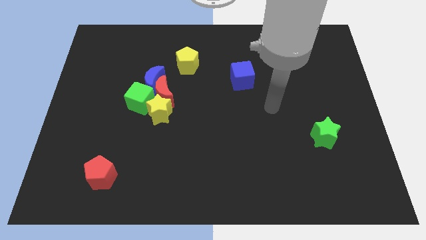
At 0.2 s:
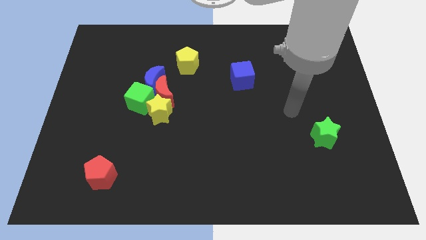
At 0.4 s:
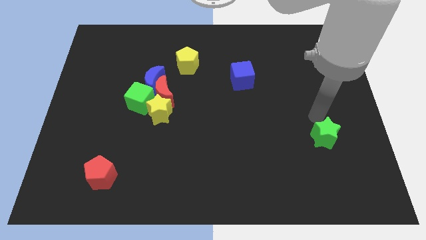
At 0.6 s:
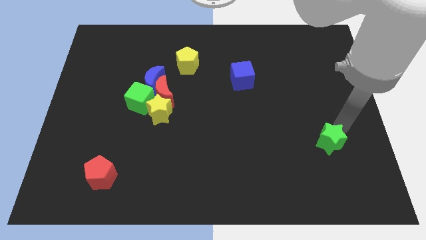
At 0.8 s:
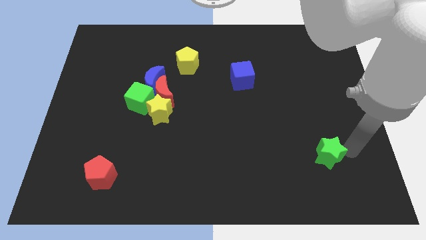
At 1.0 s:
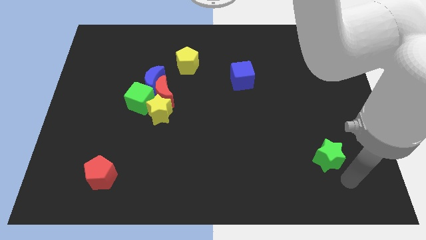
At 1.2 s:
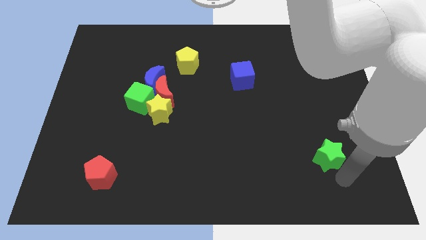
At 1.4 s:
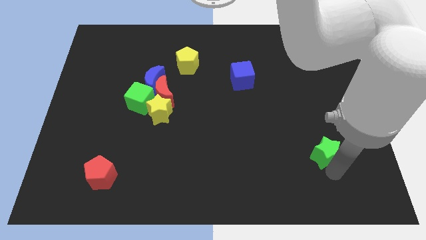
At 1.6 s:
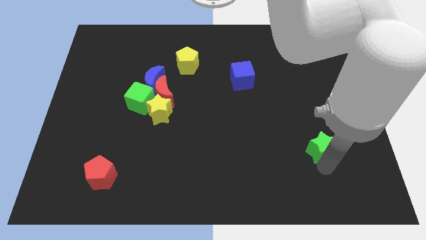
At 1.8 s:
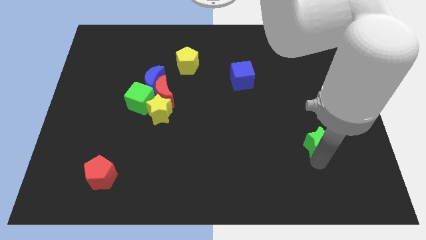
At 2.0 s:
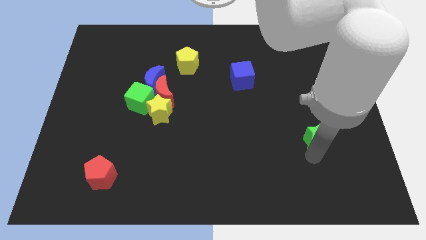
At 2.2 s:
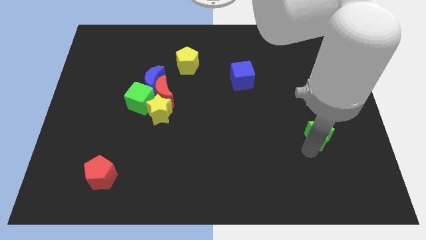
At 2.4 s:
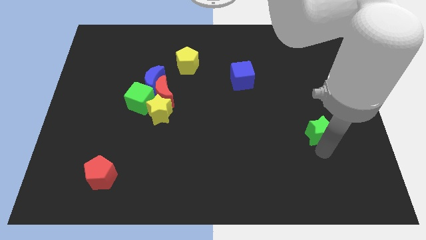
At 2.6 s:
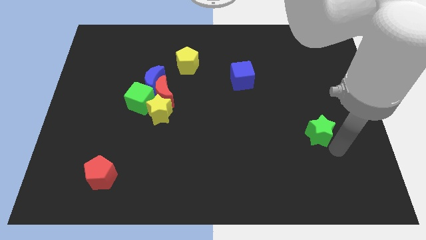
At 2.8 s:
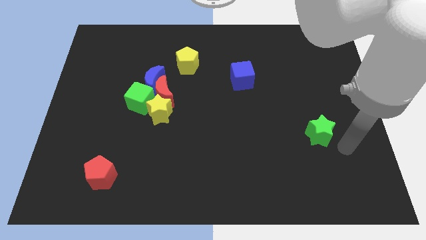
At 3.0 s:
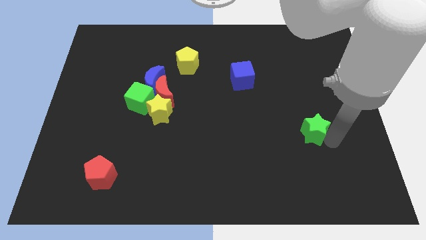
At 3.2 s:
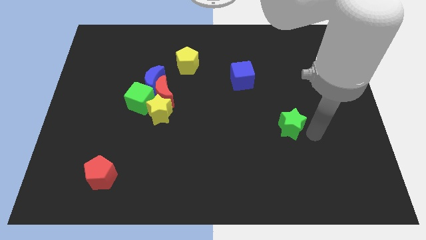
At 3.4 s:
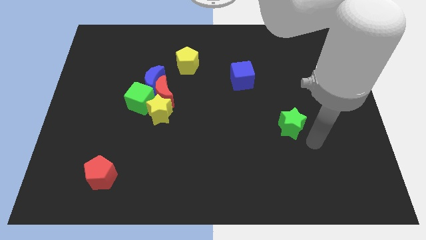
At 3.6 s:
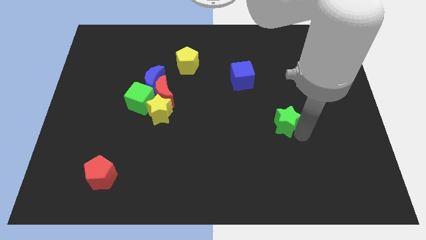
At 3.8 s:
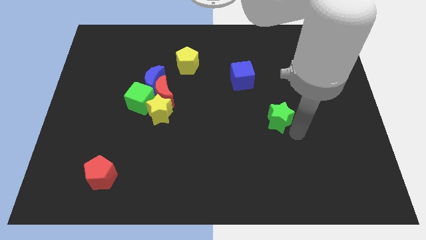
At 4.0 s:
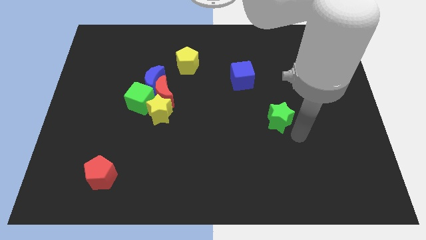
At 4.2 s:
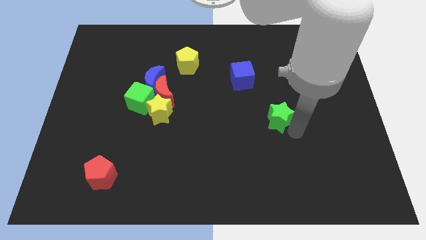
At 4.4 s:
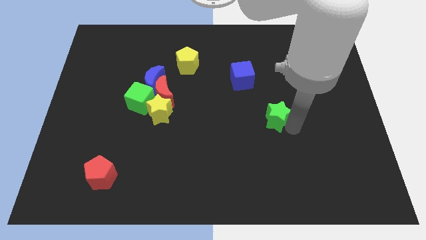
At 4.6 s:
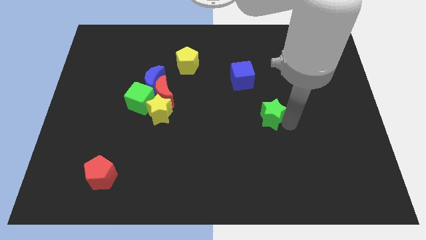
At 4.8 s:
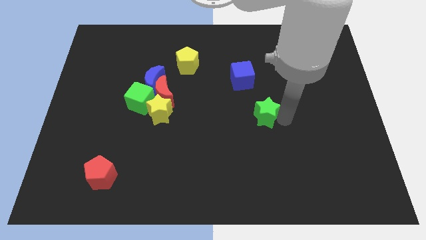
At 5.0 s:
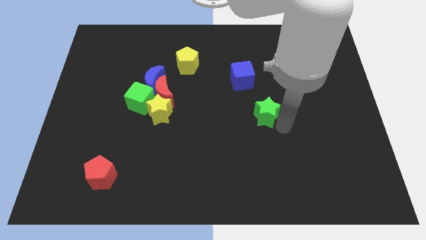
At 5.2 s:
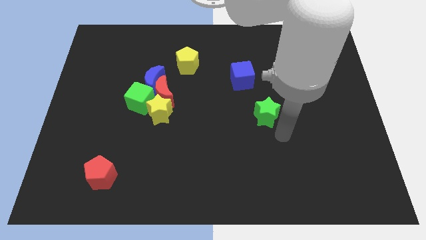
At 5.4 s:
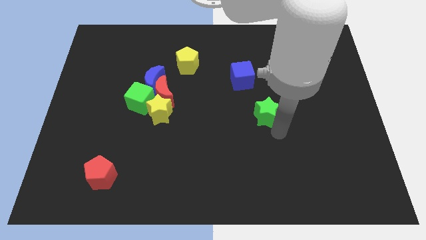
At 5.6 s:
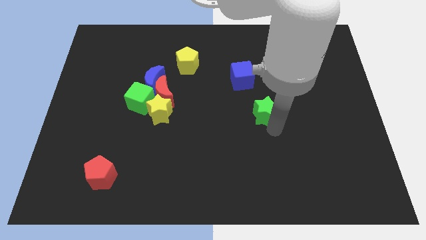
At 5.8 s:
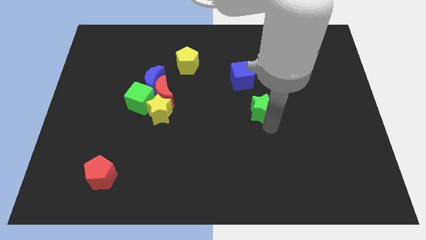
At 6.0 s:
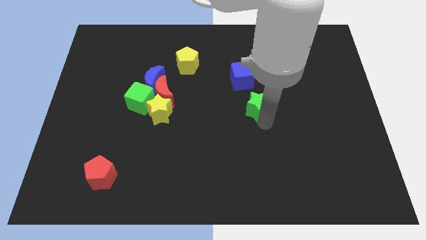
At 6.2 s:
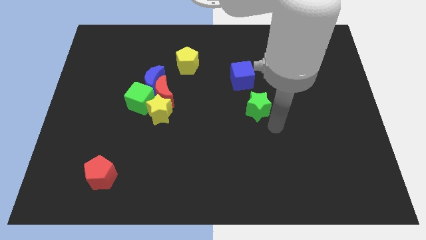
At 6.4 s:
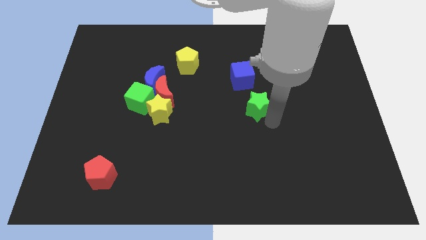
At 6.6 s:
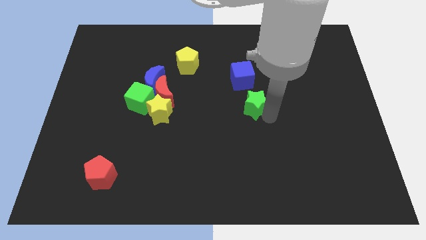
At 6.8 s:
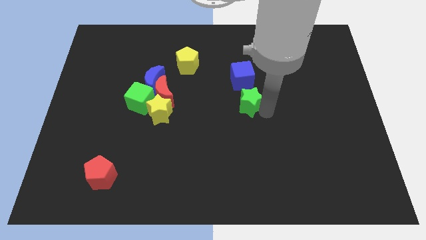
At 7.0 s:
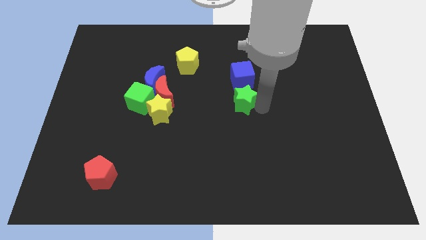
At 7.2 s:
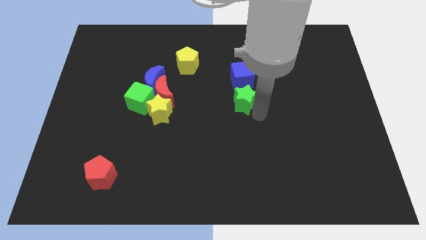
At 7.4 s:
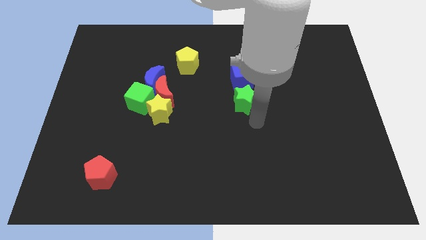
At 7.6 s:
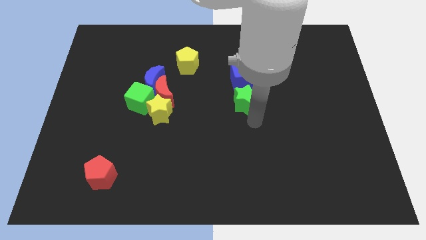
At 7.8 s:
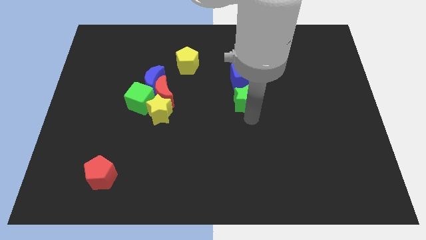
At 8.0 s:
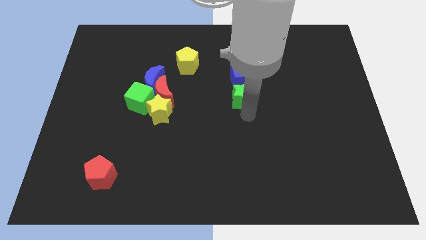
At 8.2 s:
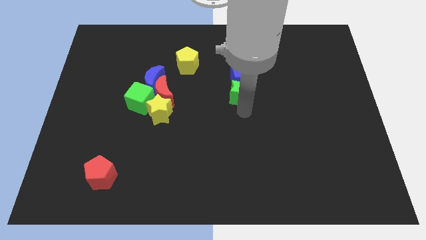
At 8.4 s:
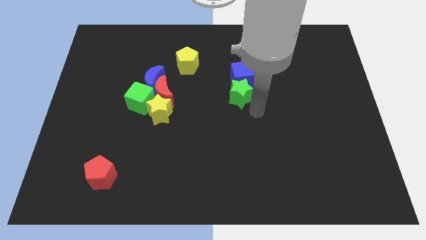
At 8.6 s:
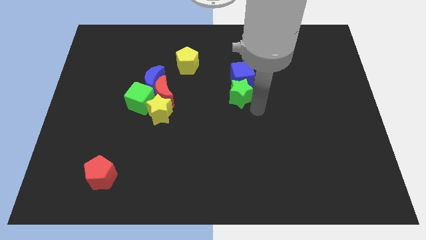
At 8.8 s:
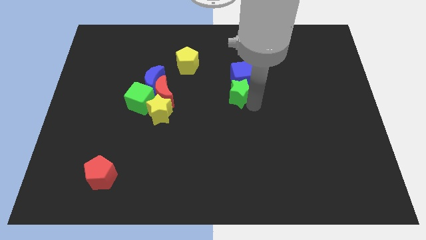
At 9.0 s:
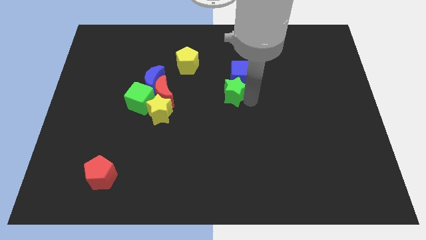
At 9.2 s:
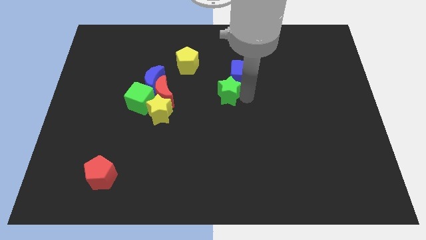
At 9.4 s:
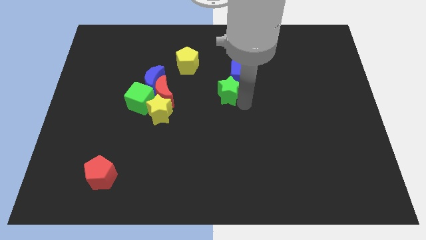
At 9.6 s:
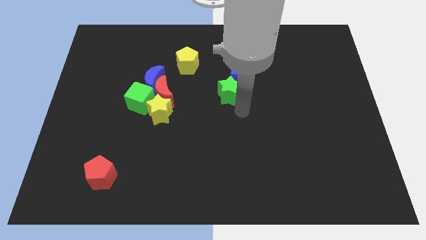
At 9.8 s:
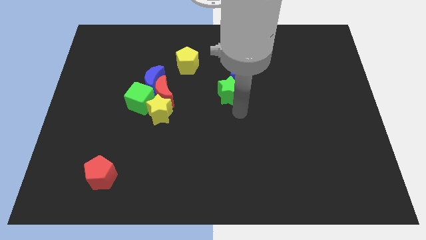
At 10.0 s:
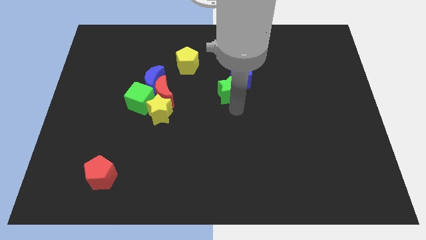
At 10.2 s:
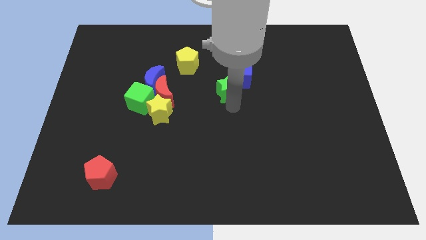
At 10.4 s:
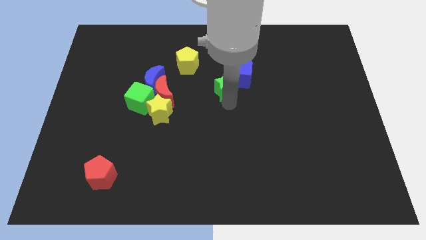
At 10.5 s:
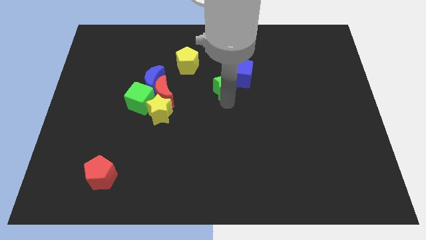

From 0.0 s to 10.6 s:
slide the green star diagonally down and to the right of the yellow pentagon
